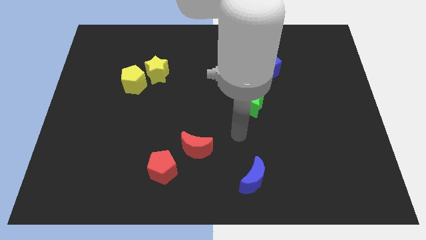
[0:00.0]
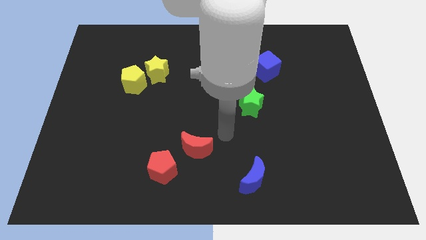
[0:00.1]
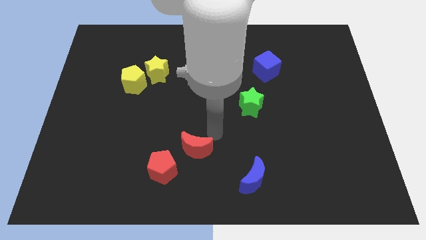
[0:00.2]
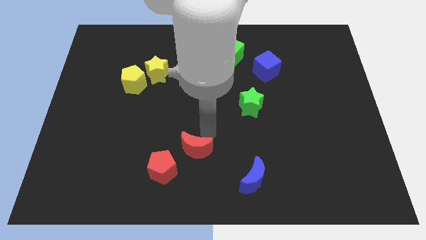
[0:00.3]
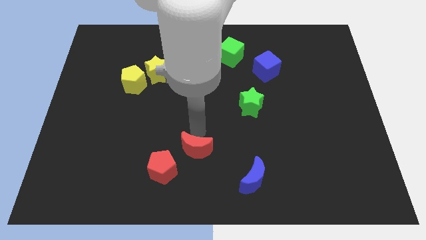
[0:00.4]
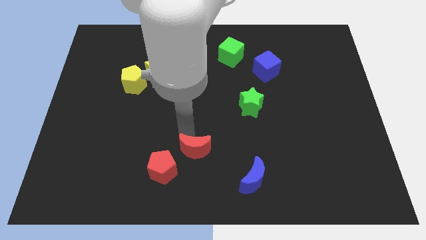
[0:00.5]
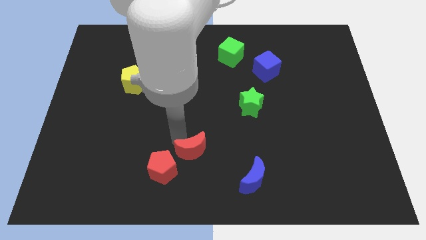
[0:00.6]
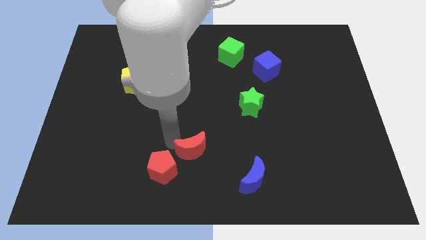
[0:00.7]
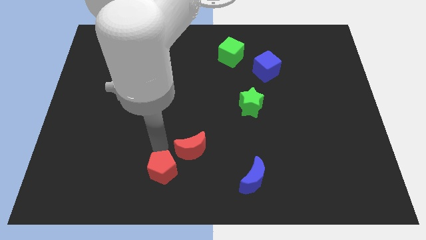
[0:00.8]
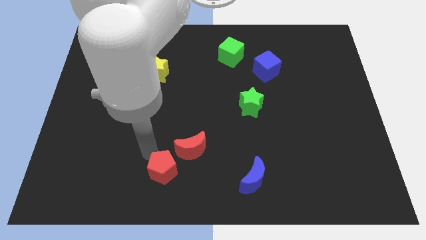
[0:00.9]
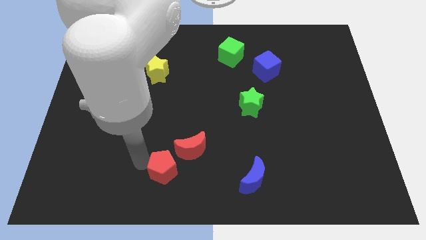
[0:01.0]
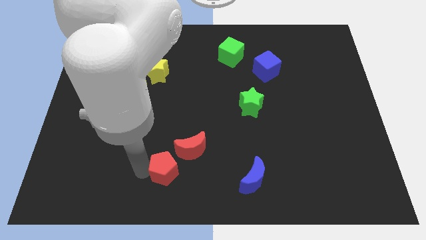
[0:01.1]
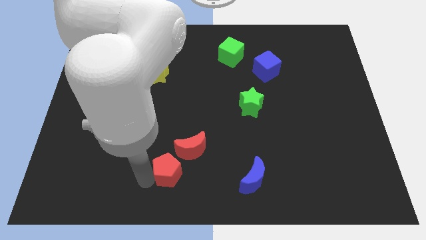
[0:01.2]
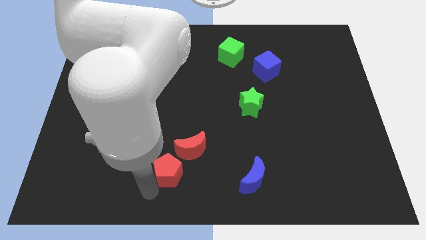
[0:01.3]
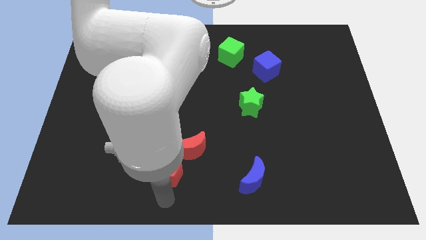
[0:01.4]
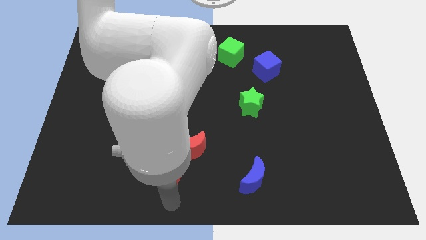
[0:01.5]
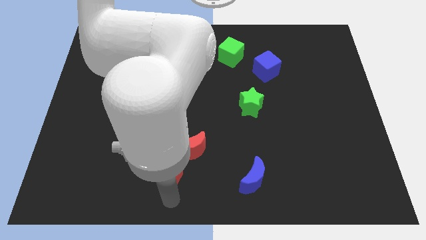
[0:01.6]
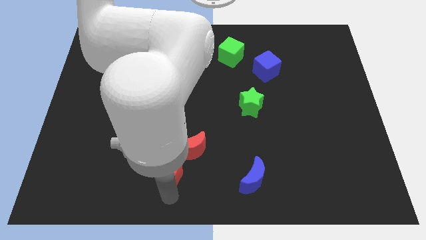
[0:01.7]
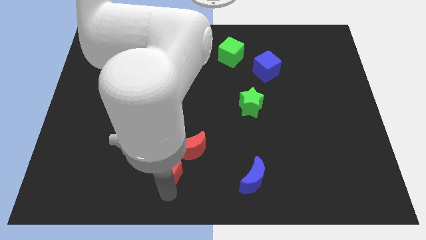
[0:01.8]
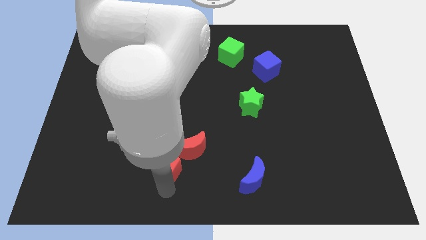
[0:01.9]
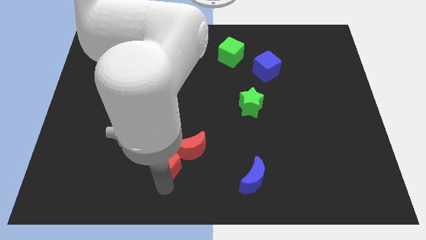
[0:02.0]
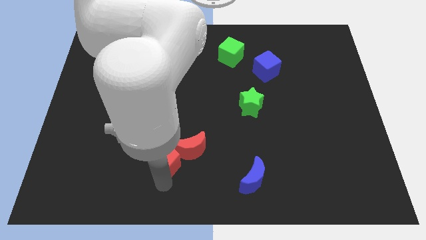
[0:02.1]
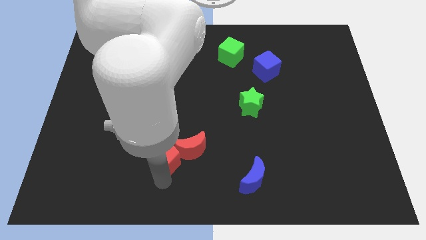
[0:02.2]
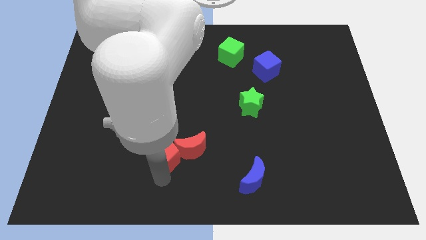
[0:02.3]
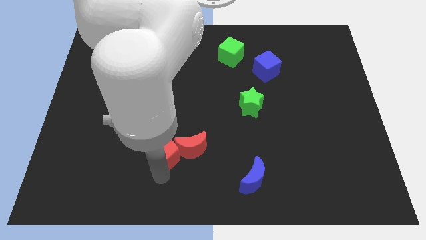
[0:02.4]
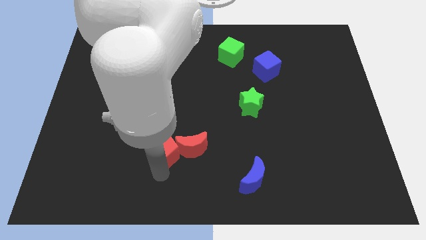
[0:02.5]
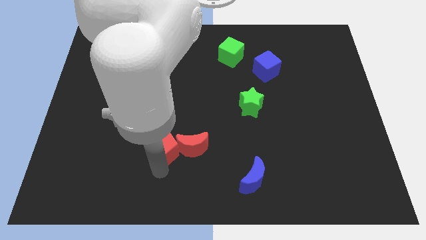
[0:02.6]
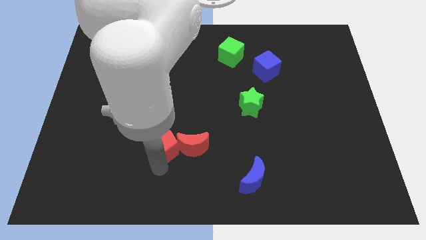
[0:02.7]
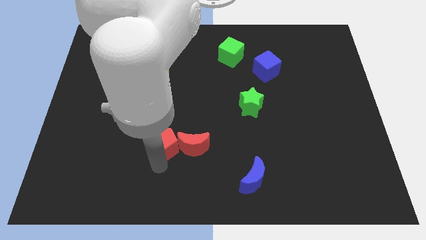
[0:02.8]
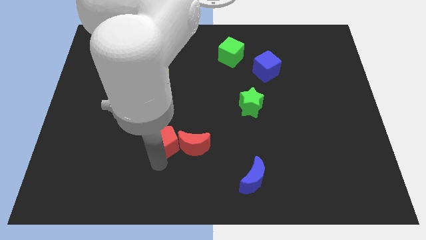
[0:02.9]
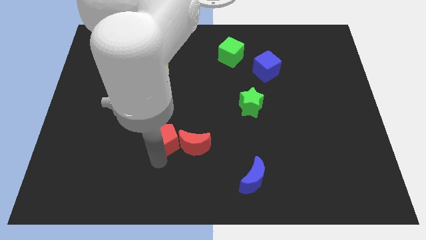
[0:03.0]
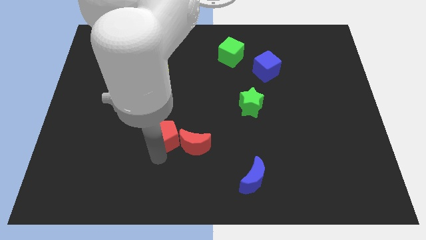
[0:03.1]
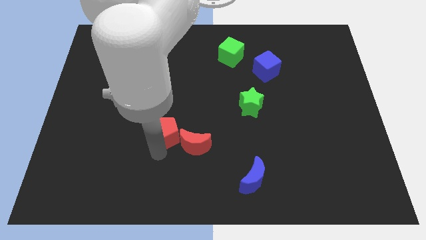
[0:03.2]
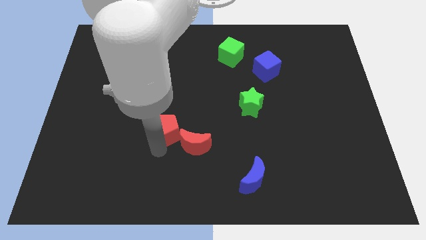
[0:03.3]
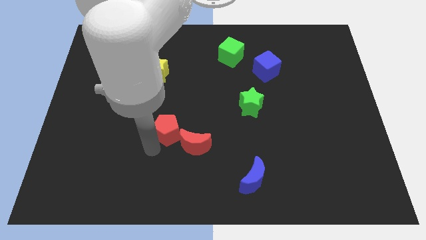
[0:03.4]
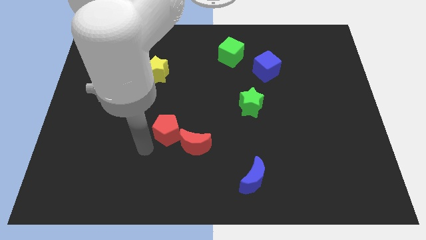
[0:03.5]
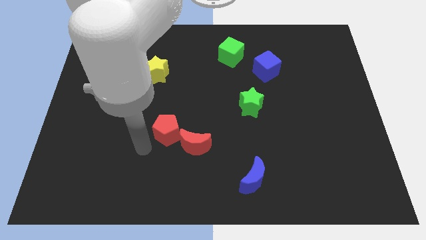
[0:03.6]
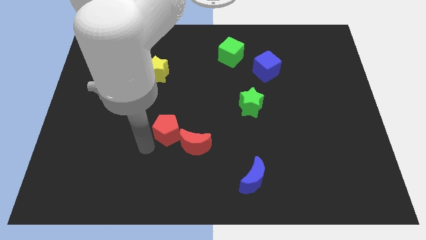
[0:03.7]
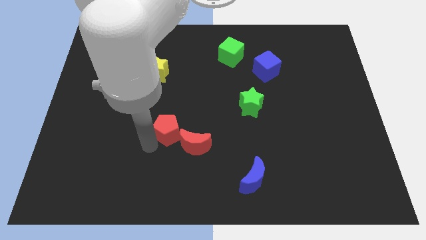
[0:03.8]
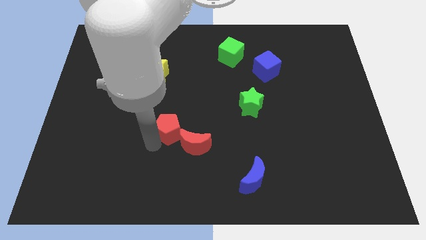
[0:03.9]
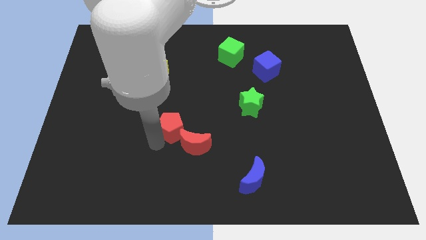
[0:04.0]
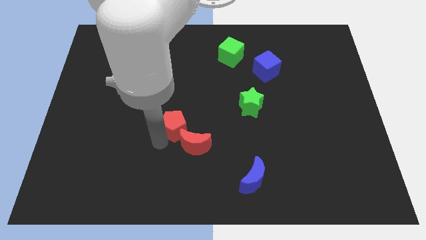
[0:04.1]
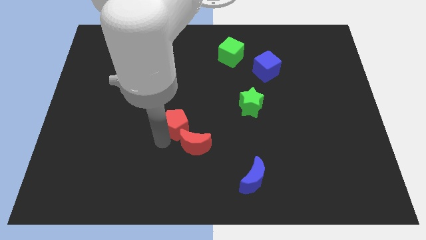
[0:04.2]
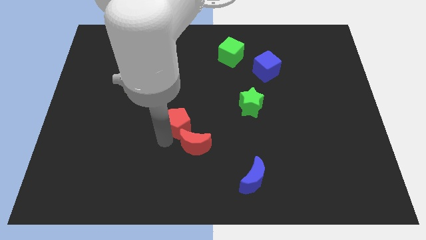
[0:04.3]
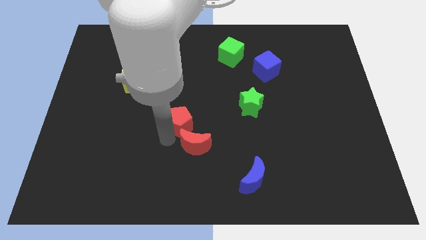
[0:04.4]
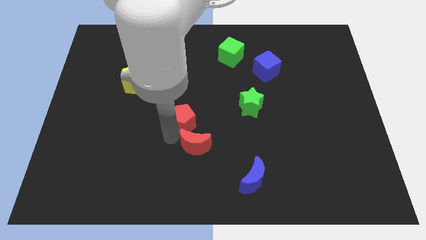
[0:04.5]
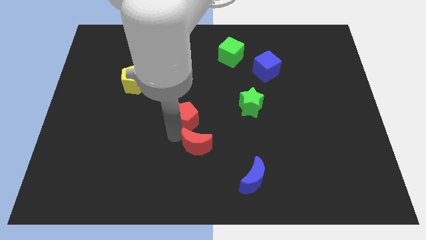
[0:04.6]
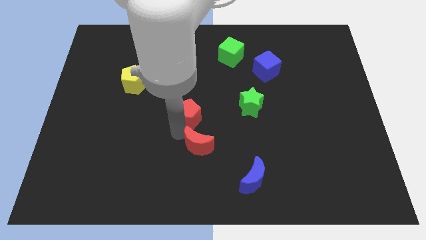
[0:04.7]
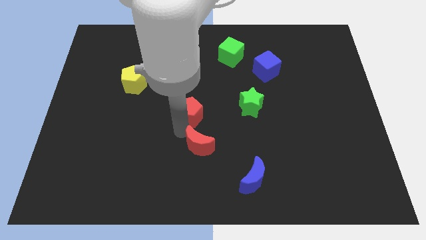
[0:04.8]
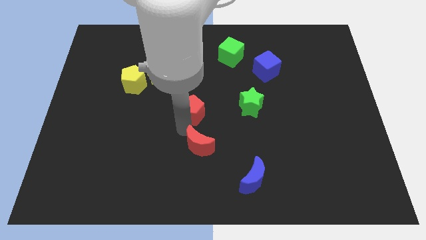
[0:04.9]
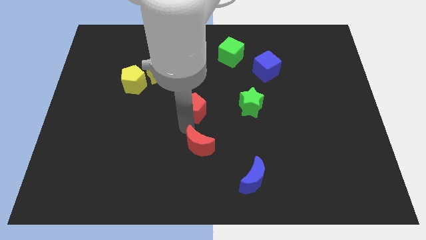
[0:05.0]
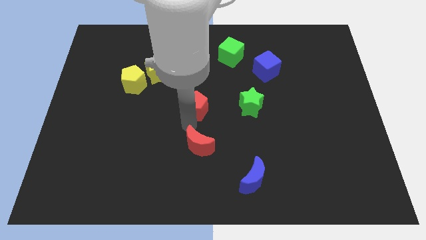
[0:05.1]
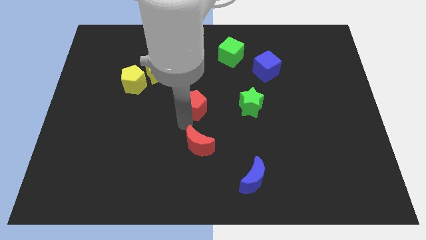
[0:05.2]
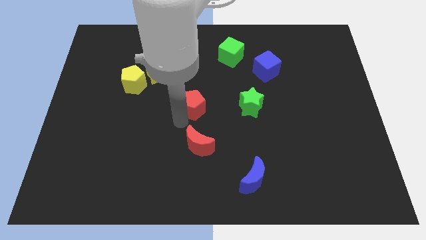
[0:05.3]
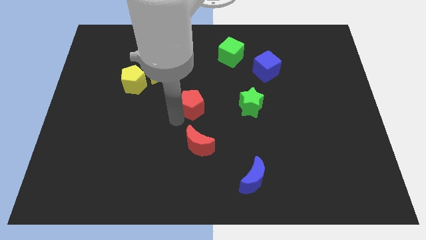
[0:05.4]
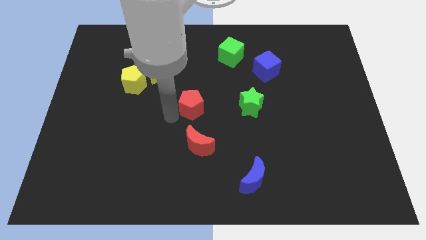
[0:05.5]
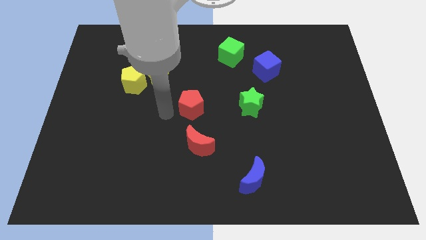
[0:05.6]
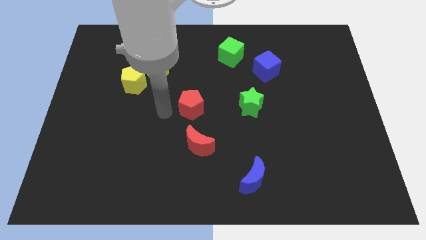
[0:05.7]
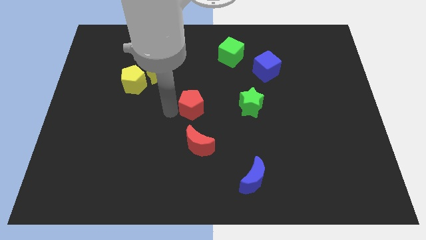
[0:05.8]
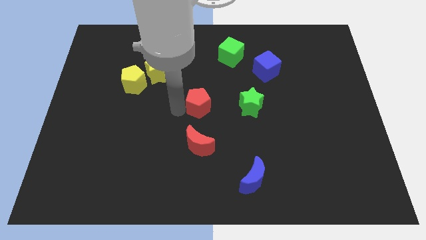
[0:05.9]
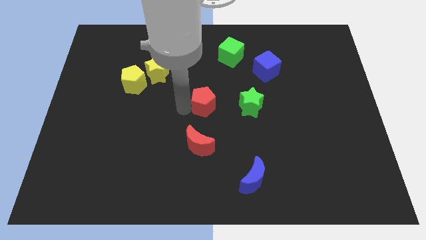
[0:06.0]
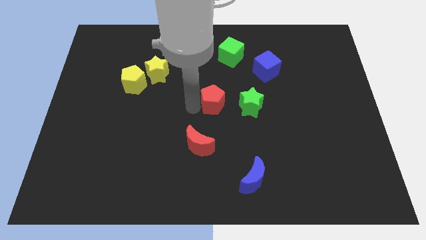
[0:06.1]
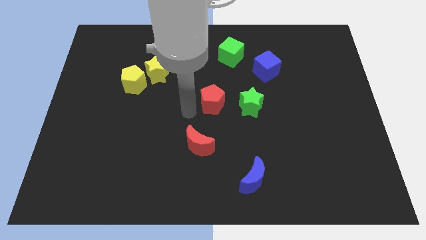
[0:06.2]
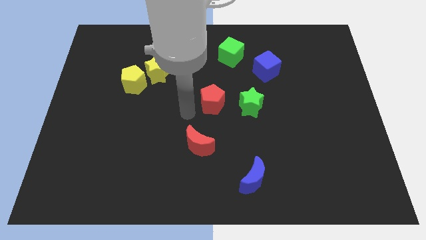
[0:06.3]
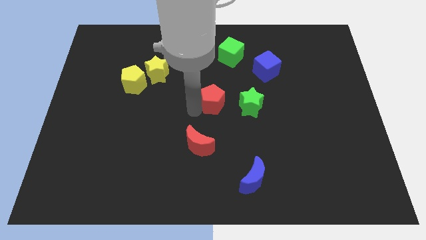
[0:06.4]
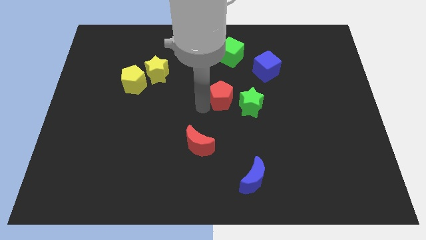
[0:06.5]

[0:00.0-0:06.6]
push the red pentagon upwards and to the right diagonally

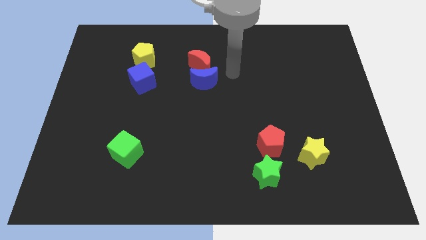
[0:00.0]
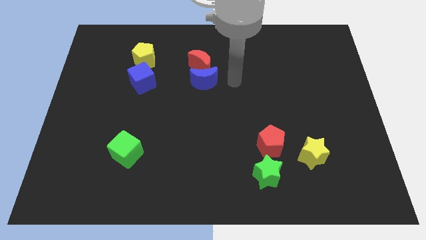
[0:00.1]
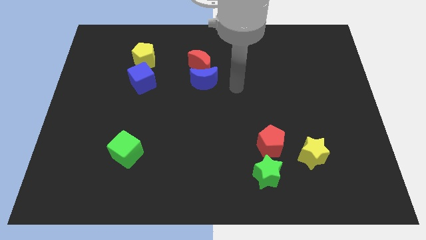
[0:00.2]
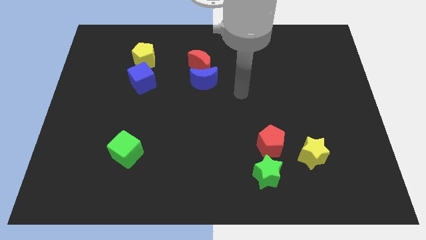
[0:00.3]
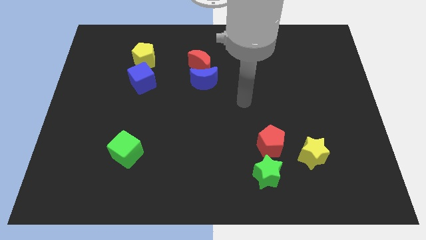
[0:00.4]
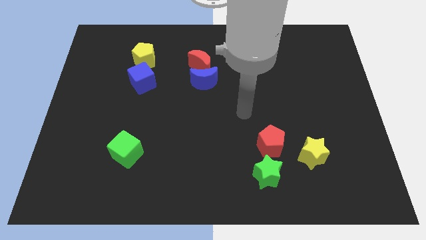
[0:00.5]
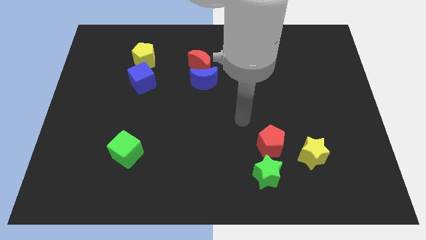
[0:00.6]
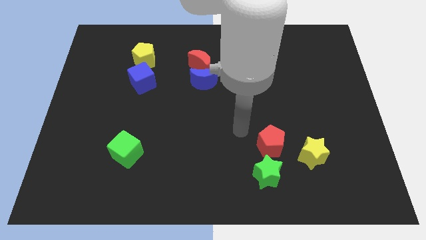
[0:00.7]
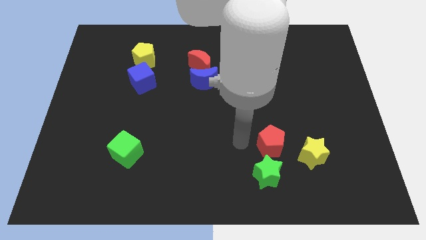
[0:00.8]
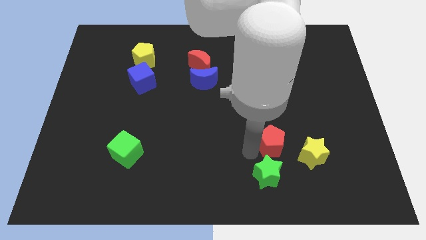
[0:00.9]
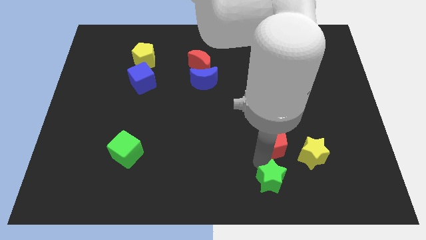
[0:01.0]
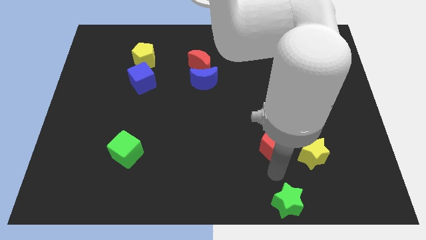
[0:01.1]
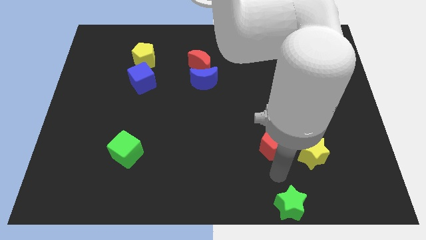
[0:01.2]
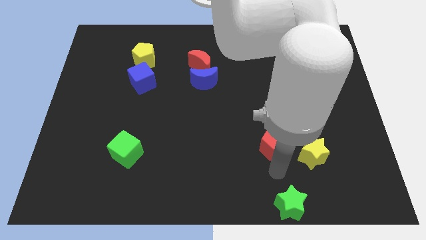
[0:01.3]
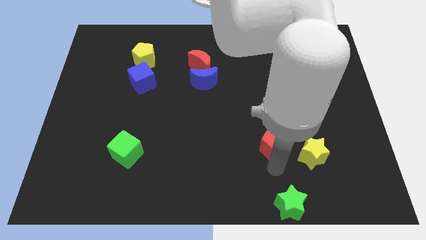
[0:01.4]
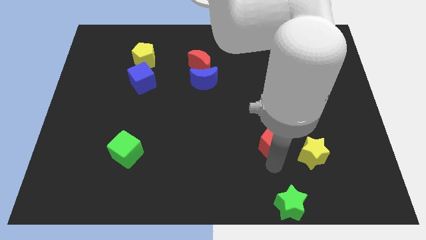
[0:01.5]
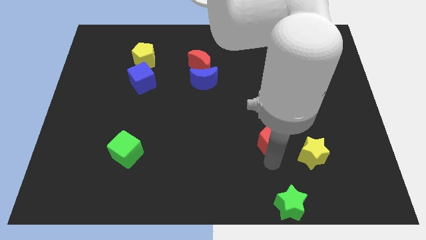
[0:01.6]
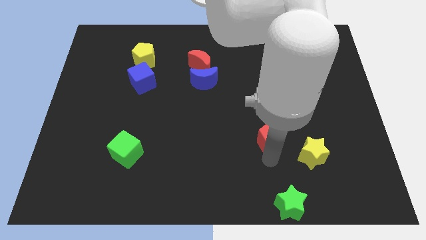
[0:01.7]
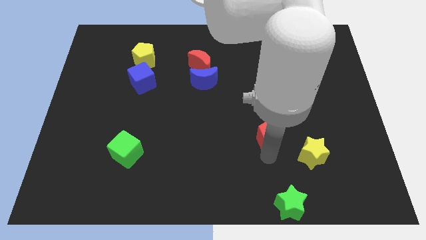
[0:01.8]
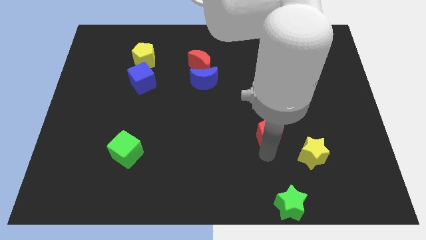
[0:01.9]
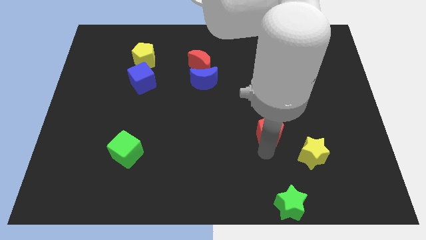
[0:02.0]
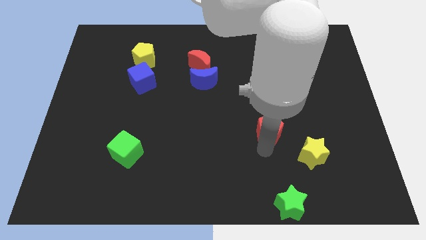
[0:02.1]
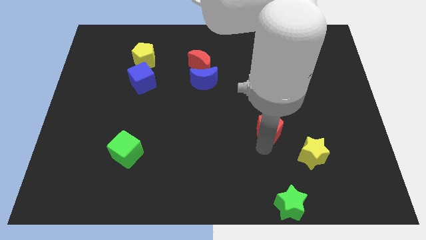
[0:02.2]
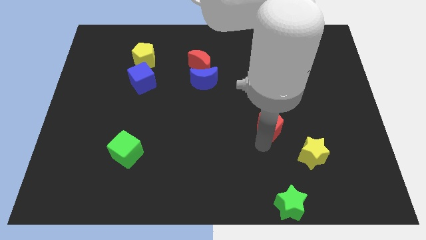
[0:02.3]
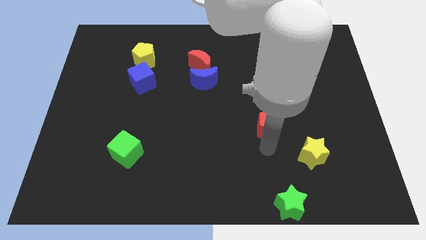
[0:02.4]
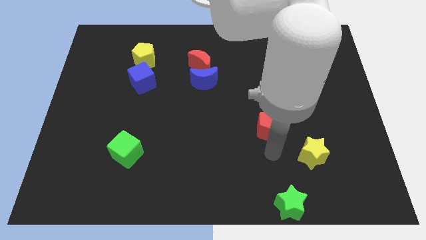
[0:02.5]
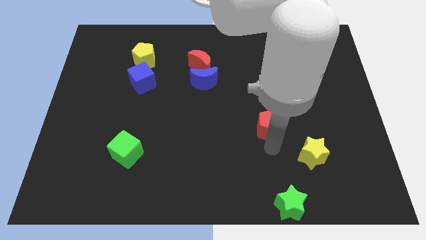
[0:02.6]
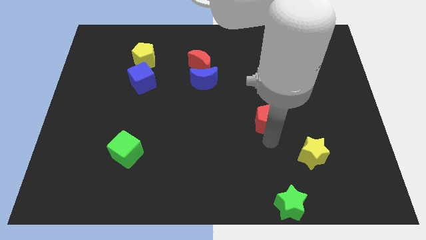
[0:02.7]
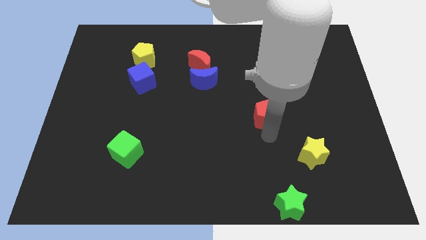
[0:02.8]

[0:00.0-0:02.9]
push the red pentagon up somewhat
